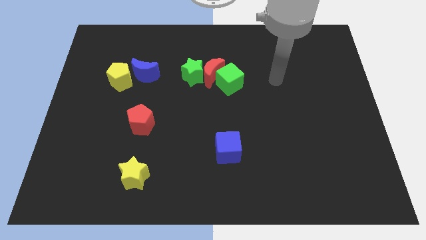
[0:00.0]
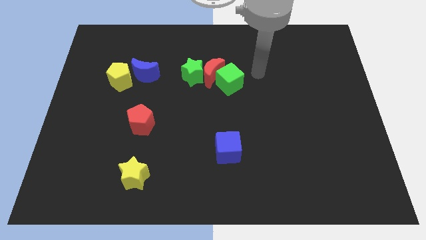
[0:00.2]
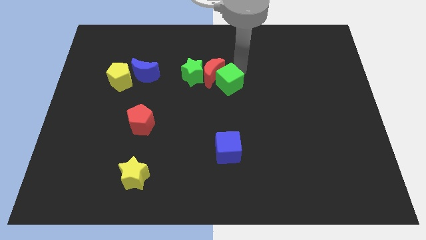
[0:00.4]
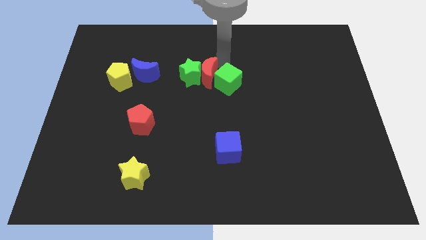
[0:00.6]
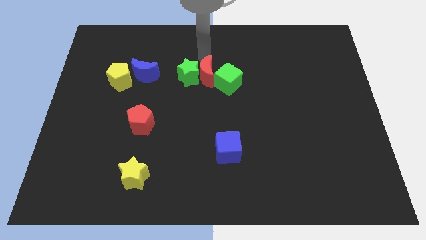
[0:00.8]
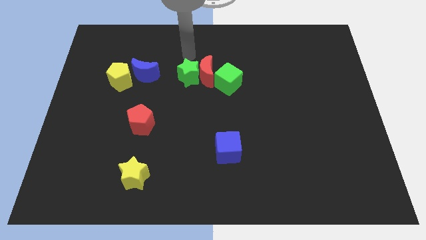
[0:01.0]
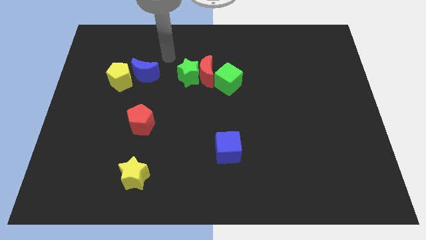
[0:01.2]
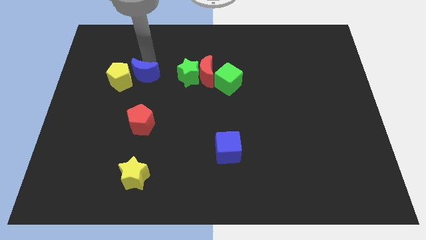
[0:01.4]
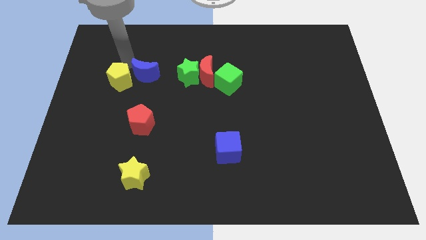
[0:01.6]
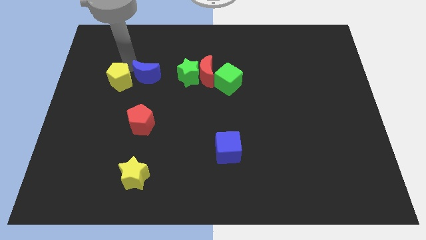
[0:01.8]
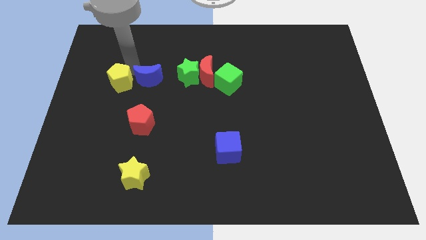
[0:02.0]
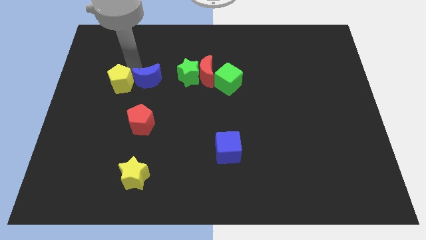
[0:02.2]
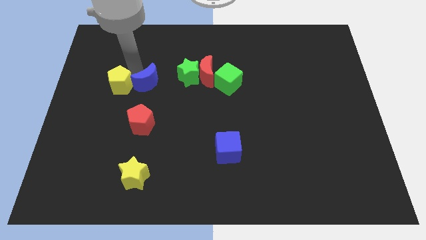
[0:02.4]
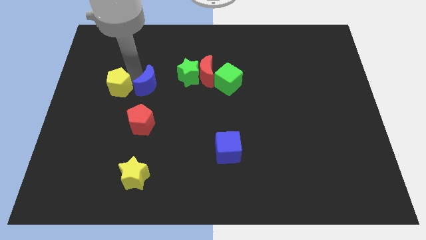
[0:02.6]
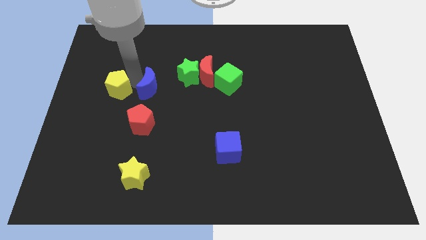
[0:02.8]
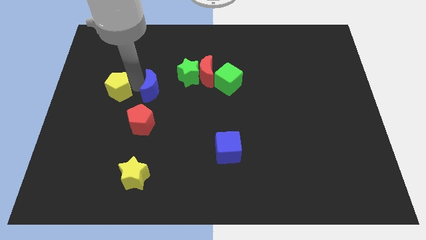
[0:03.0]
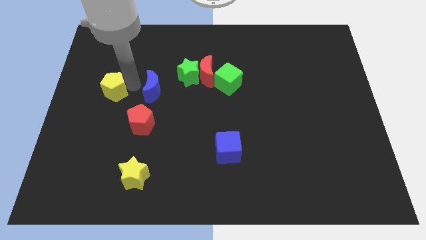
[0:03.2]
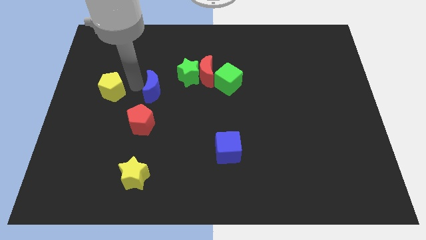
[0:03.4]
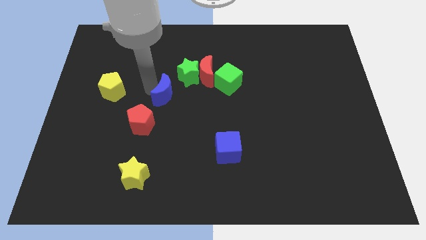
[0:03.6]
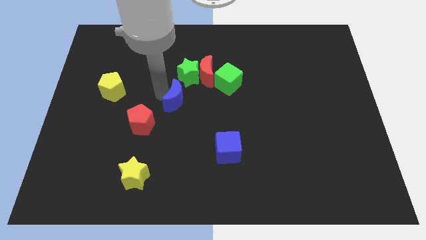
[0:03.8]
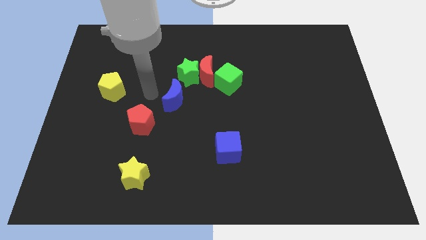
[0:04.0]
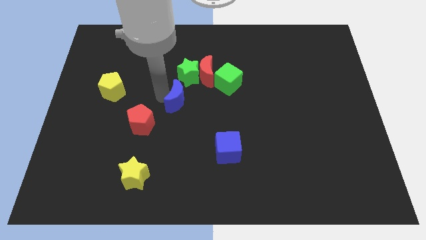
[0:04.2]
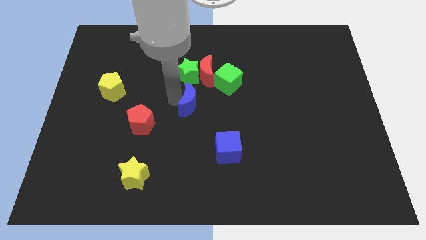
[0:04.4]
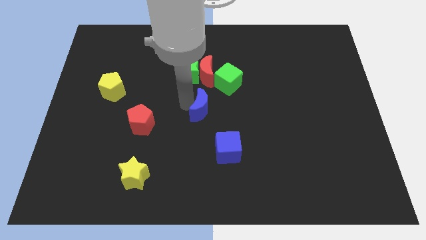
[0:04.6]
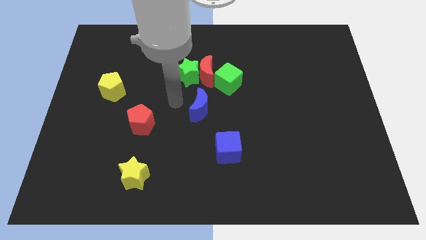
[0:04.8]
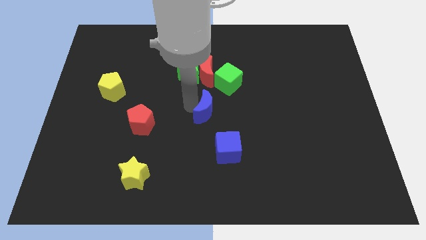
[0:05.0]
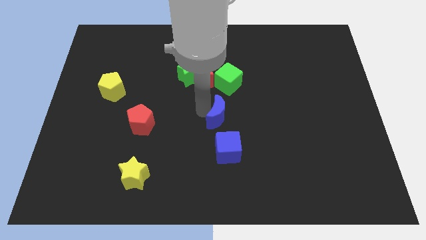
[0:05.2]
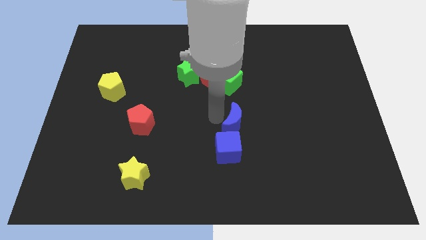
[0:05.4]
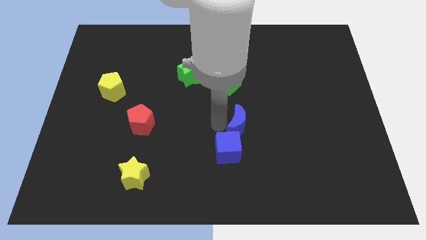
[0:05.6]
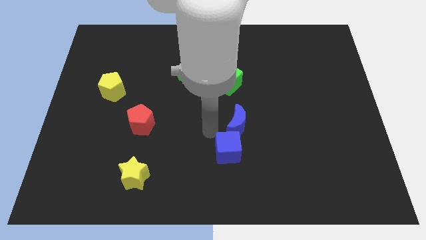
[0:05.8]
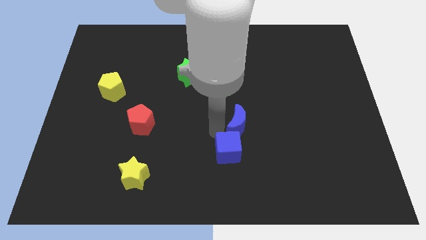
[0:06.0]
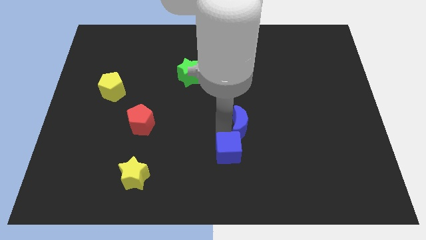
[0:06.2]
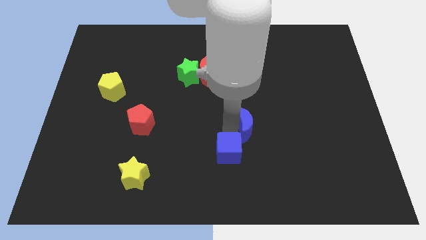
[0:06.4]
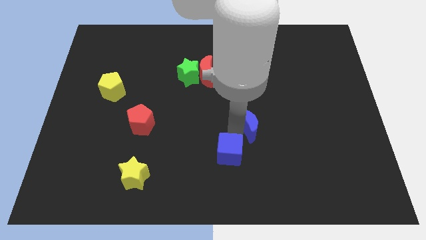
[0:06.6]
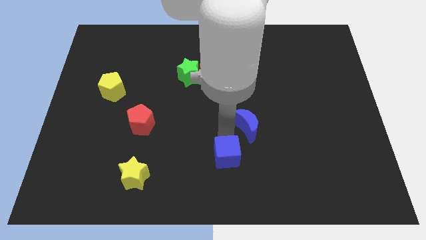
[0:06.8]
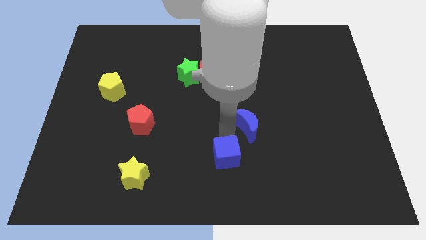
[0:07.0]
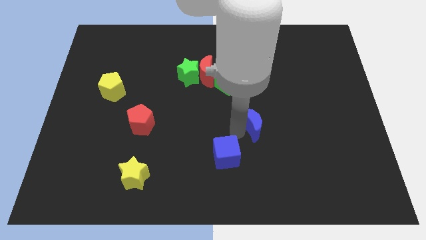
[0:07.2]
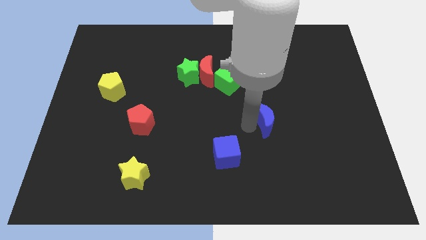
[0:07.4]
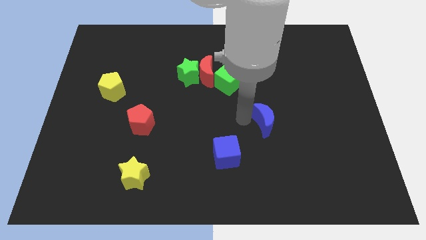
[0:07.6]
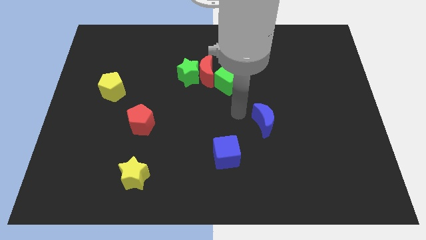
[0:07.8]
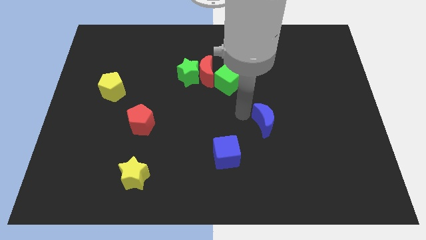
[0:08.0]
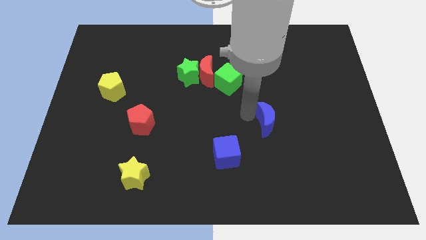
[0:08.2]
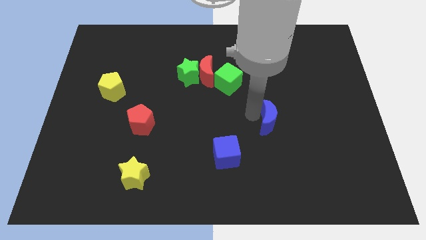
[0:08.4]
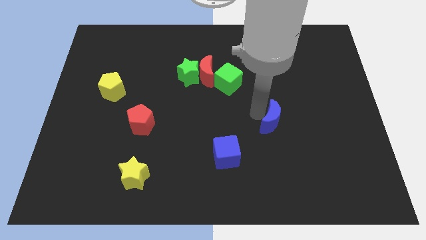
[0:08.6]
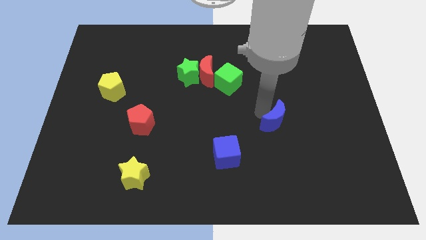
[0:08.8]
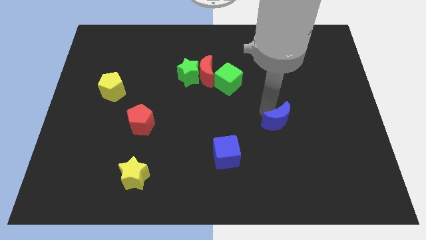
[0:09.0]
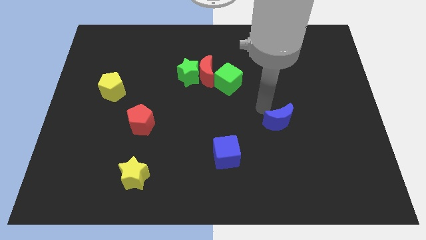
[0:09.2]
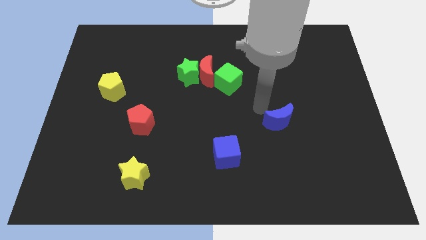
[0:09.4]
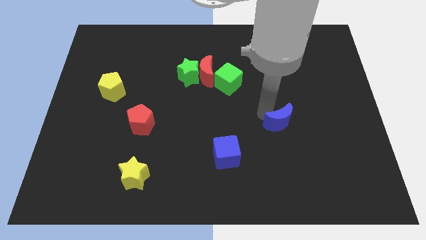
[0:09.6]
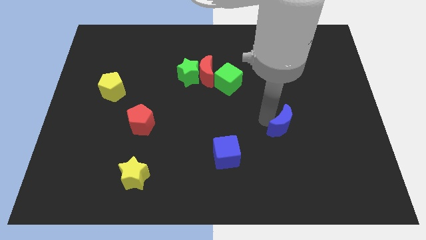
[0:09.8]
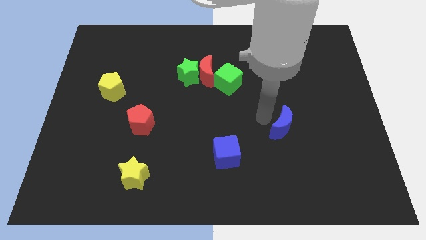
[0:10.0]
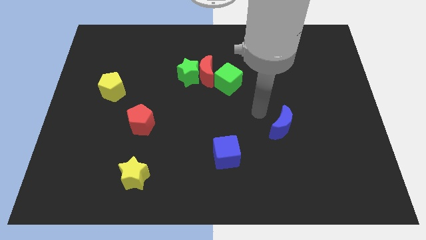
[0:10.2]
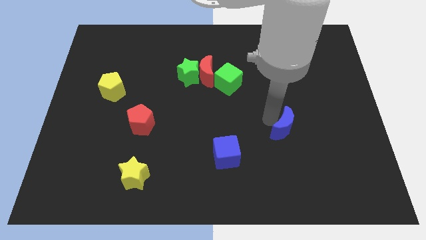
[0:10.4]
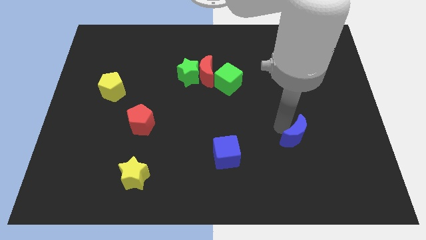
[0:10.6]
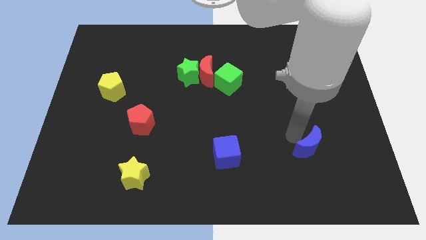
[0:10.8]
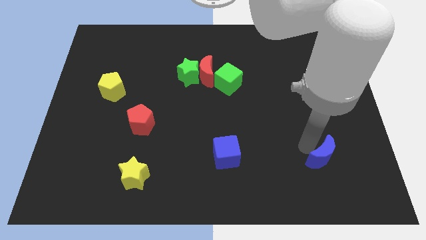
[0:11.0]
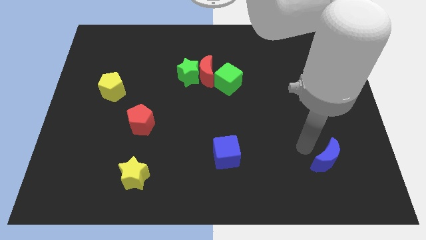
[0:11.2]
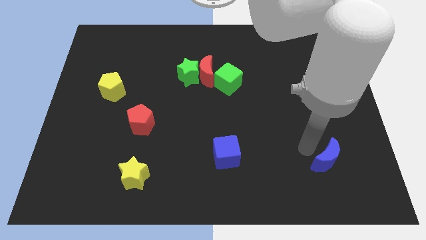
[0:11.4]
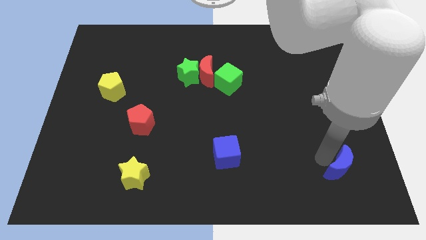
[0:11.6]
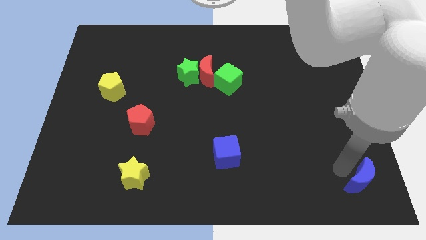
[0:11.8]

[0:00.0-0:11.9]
push the blue moon to the bottom right of the board
